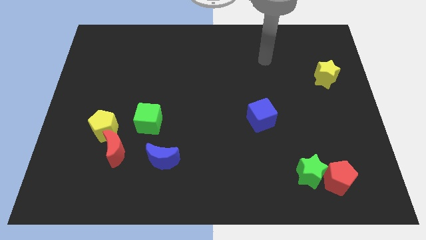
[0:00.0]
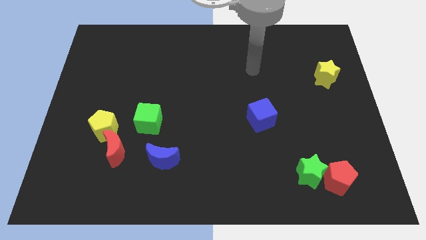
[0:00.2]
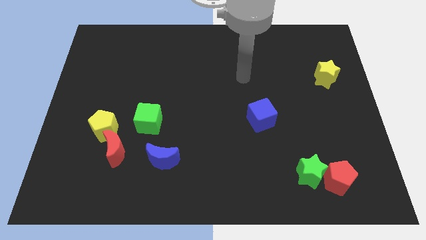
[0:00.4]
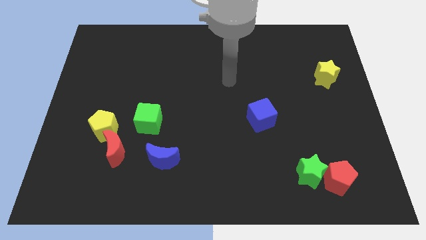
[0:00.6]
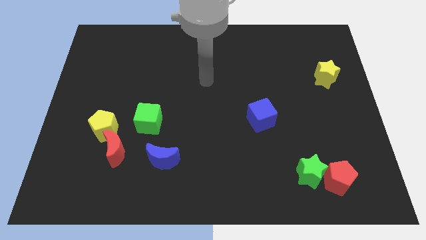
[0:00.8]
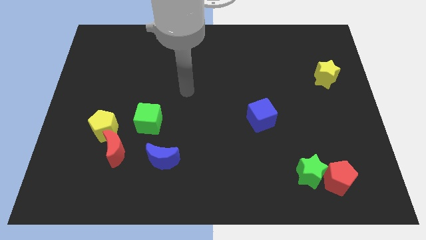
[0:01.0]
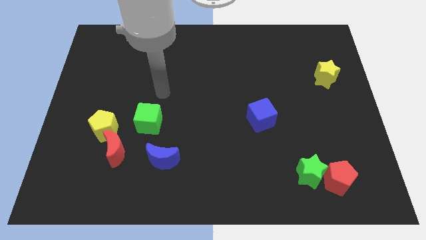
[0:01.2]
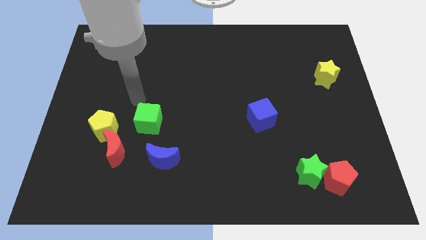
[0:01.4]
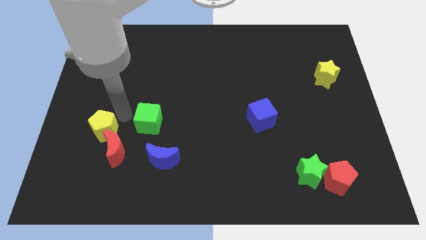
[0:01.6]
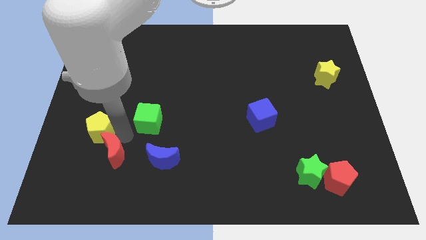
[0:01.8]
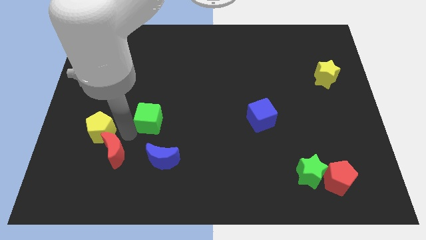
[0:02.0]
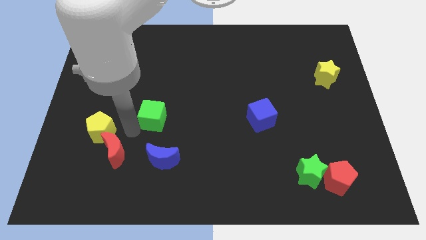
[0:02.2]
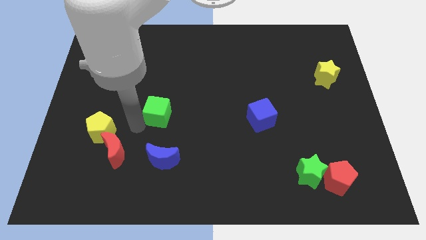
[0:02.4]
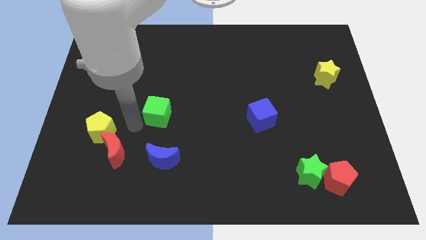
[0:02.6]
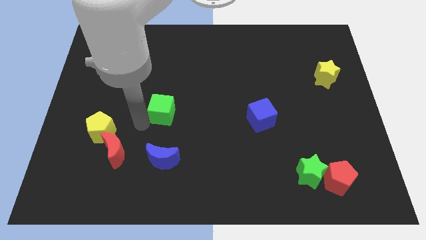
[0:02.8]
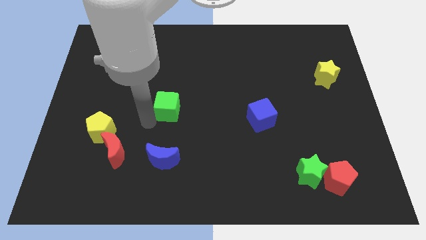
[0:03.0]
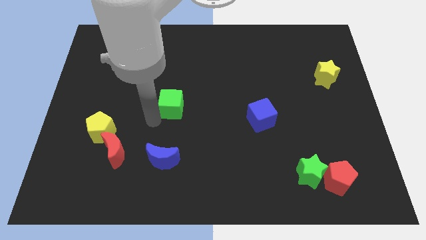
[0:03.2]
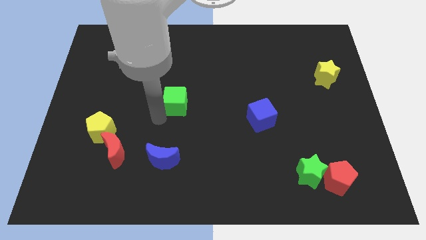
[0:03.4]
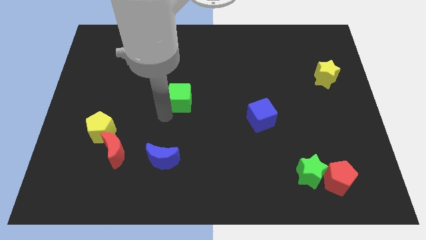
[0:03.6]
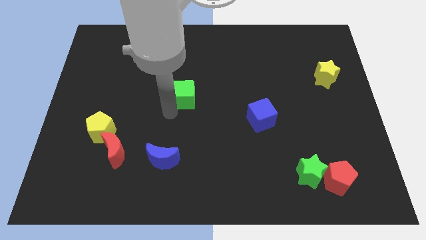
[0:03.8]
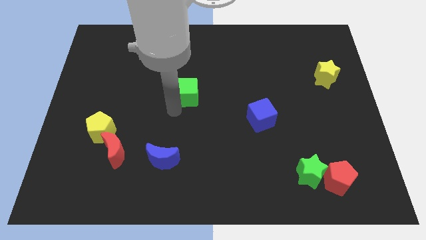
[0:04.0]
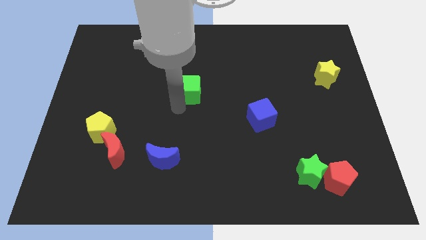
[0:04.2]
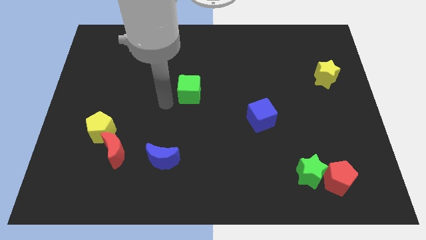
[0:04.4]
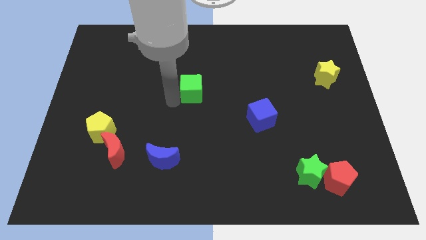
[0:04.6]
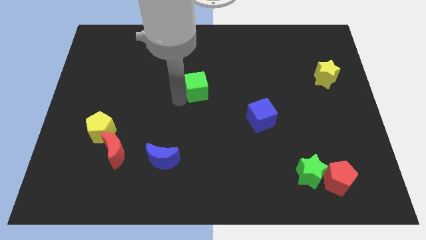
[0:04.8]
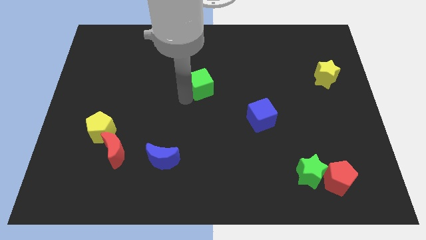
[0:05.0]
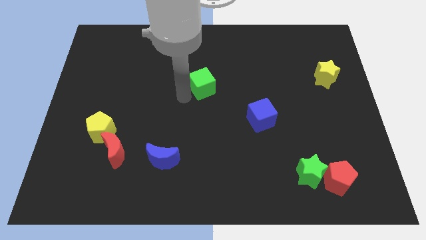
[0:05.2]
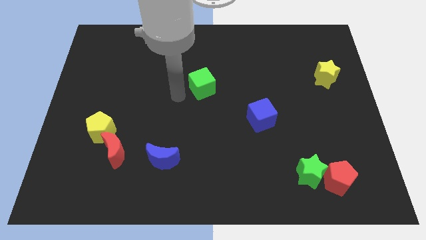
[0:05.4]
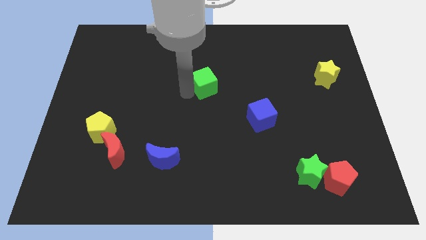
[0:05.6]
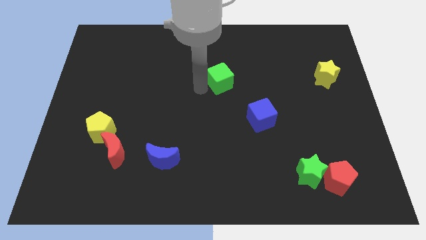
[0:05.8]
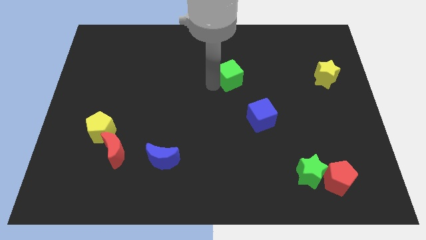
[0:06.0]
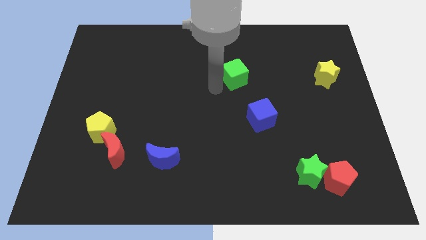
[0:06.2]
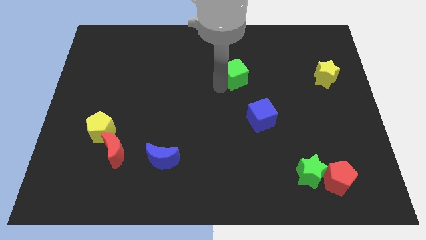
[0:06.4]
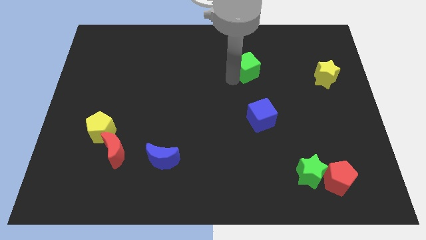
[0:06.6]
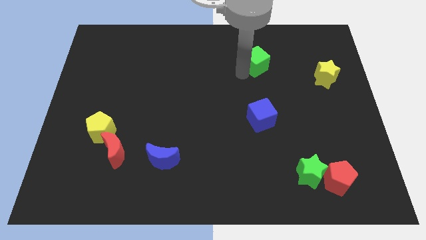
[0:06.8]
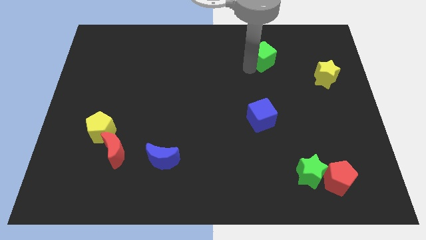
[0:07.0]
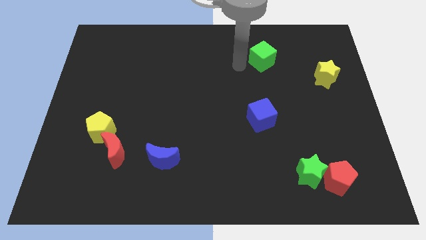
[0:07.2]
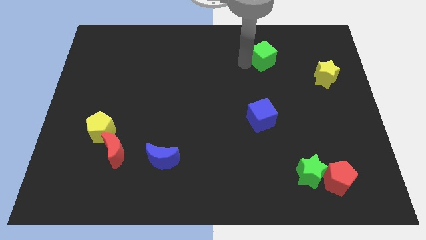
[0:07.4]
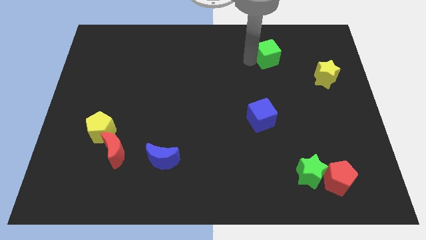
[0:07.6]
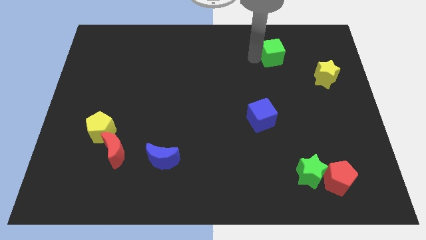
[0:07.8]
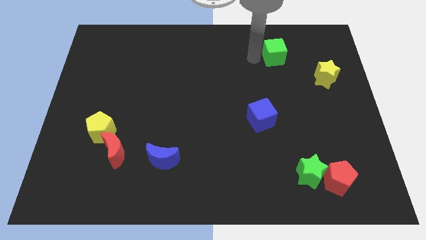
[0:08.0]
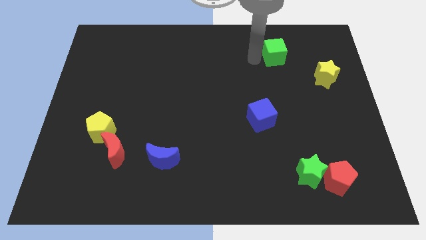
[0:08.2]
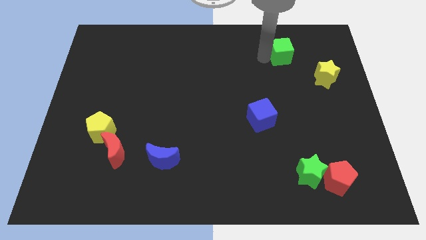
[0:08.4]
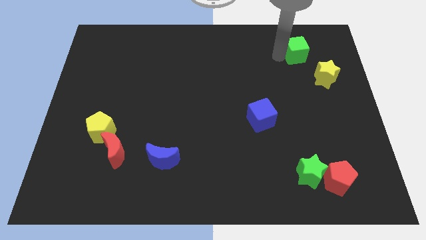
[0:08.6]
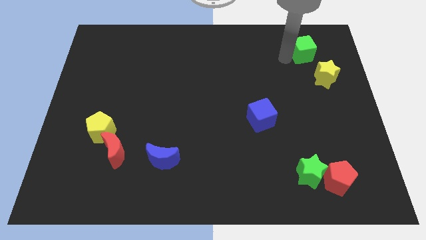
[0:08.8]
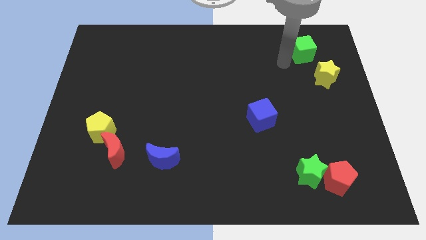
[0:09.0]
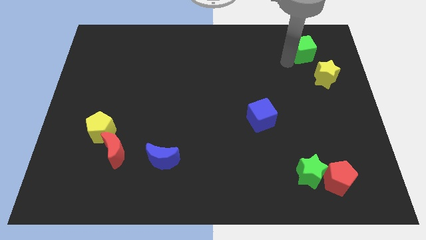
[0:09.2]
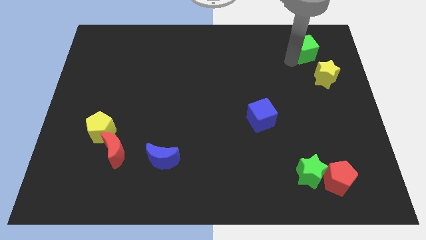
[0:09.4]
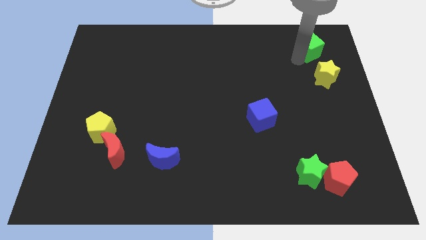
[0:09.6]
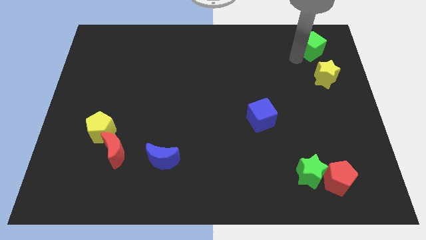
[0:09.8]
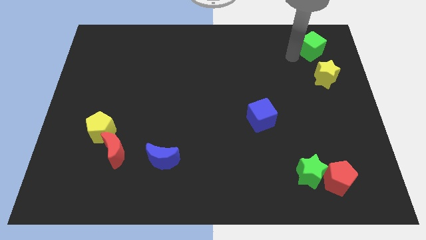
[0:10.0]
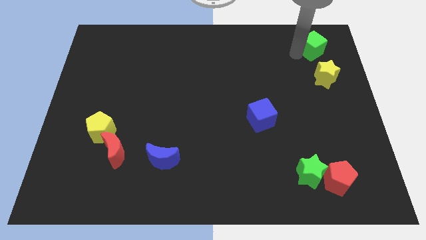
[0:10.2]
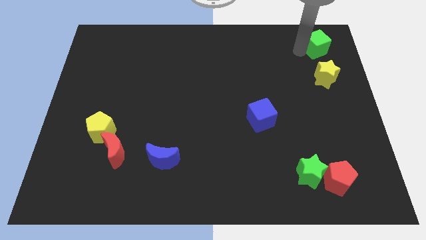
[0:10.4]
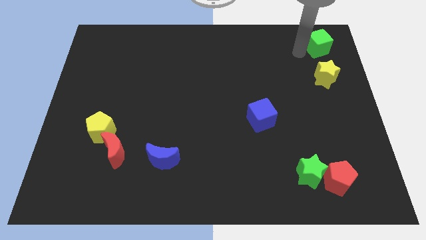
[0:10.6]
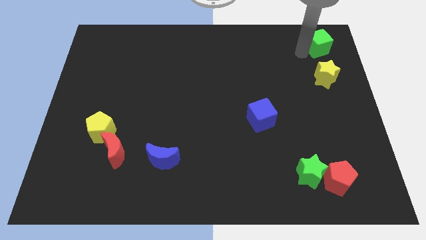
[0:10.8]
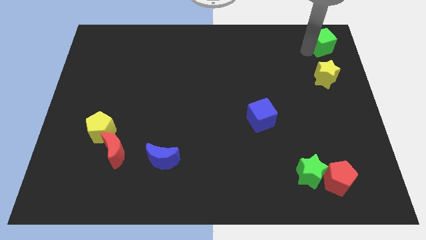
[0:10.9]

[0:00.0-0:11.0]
move the green cube to the top right corner

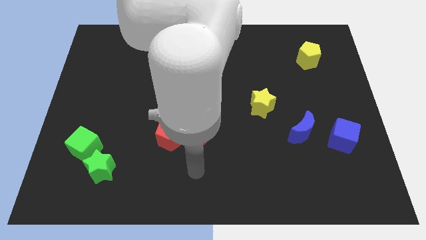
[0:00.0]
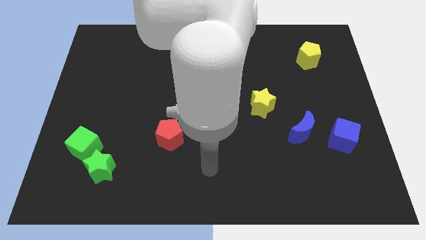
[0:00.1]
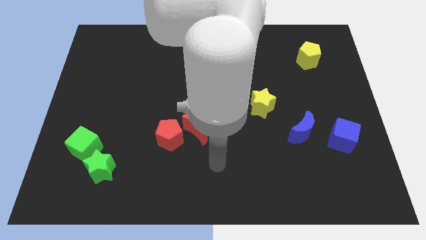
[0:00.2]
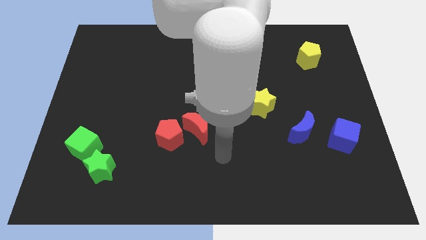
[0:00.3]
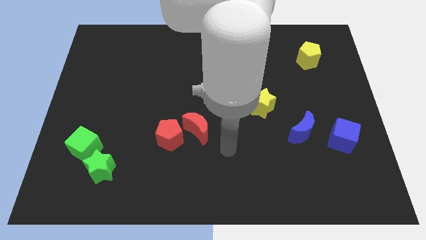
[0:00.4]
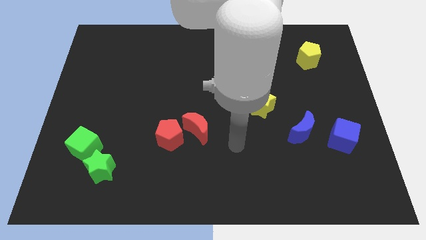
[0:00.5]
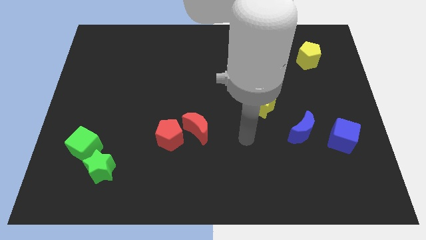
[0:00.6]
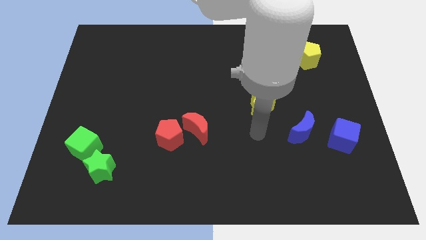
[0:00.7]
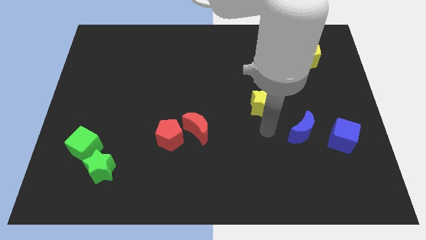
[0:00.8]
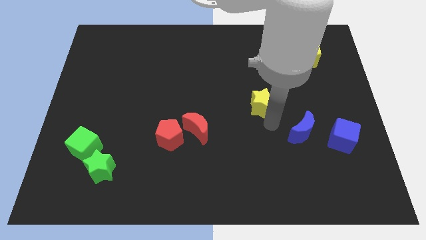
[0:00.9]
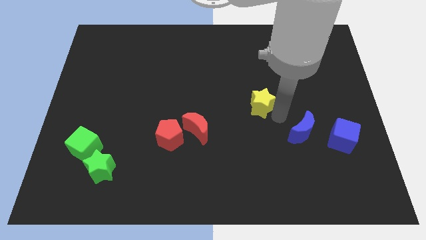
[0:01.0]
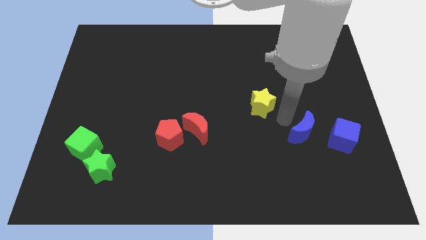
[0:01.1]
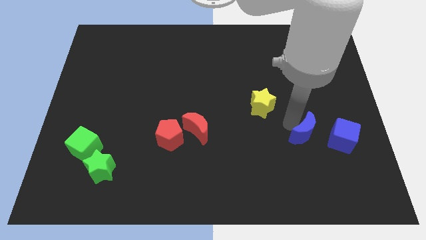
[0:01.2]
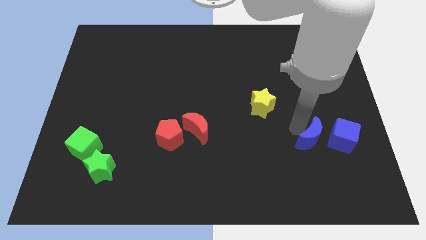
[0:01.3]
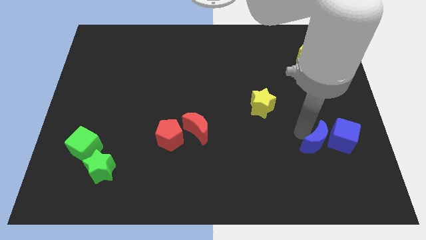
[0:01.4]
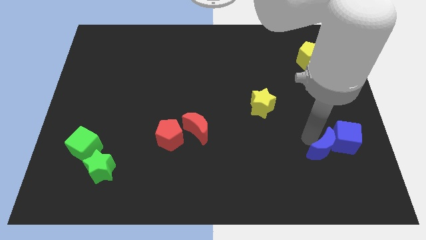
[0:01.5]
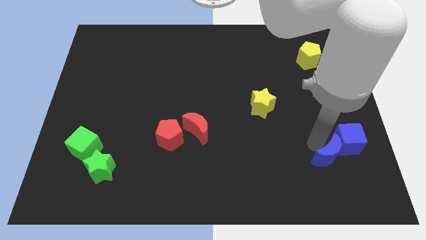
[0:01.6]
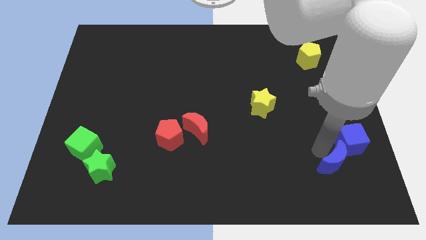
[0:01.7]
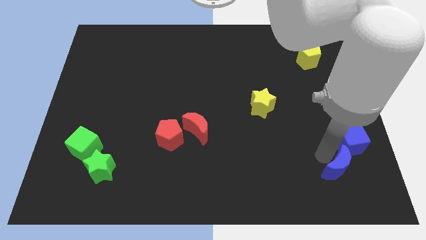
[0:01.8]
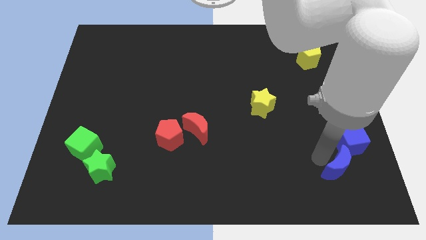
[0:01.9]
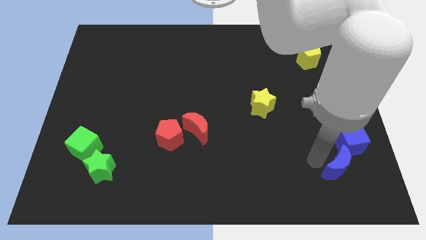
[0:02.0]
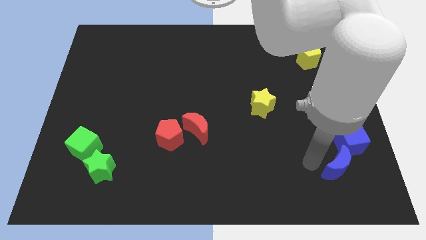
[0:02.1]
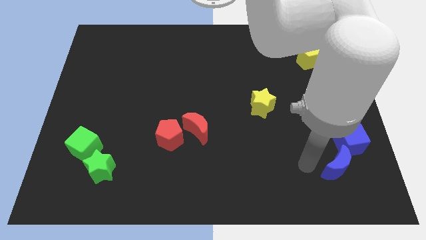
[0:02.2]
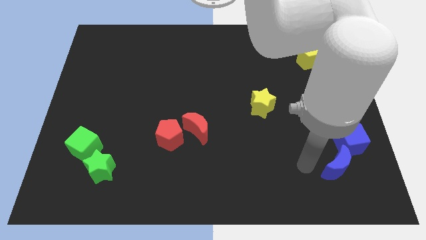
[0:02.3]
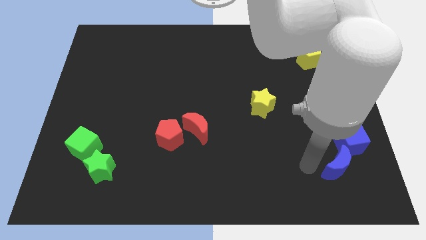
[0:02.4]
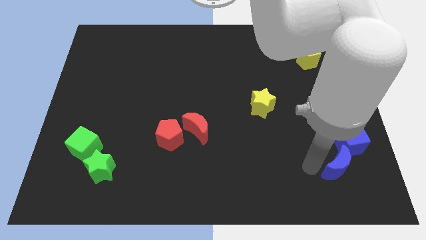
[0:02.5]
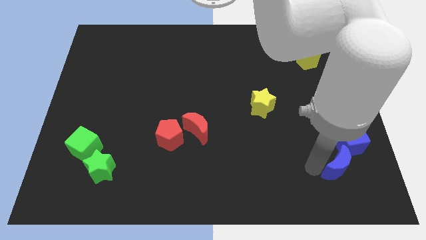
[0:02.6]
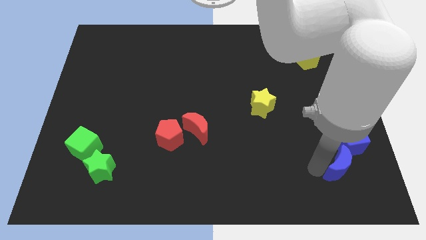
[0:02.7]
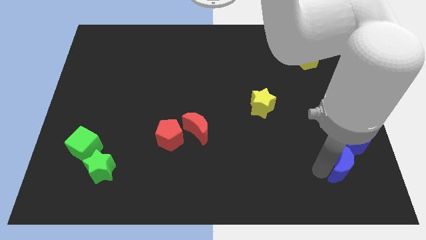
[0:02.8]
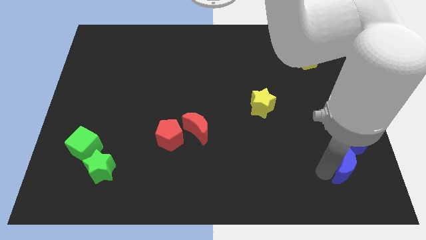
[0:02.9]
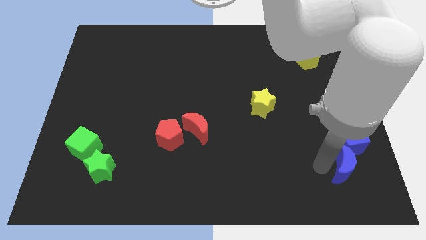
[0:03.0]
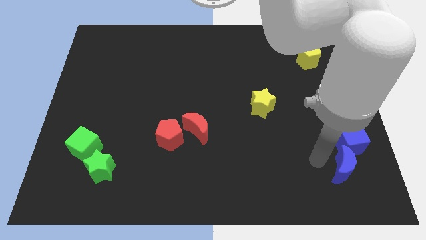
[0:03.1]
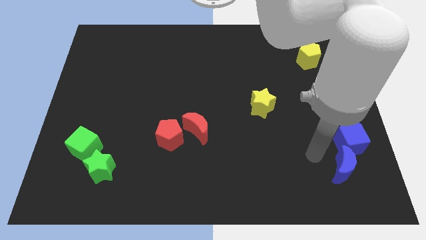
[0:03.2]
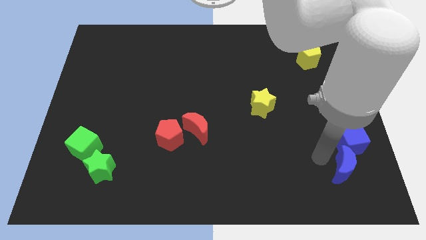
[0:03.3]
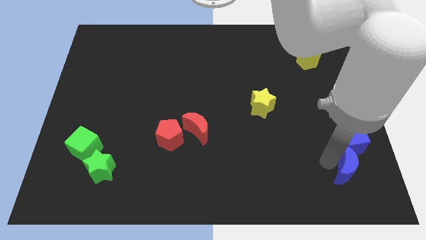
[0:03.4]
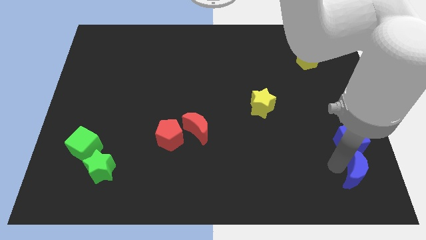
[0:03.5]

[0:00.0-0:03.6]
put the blue moon to the lower right corner
